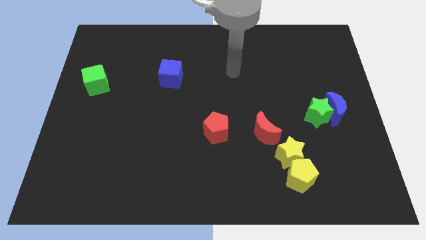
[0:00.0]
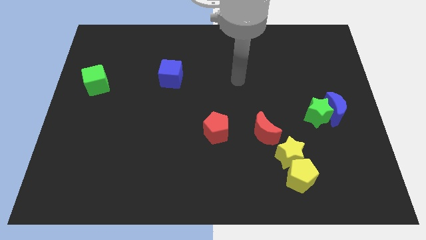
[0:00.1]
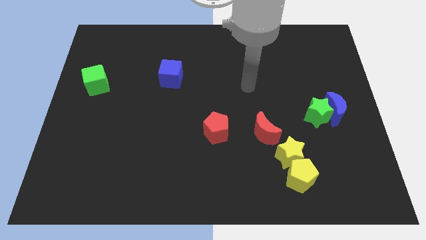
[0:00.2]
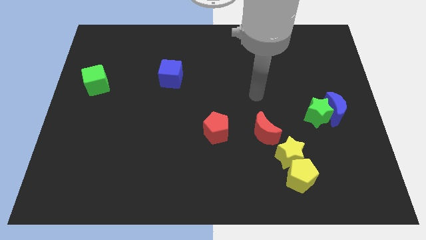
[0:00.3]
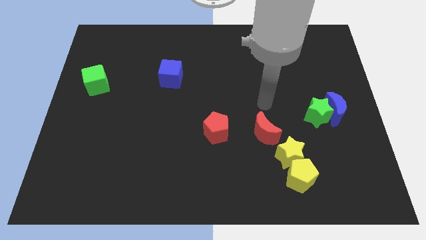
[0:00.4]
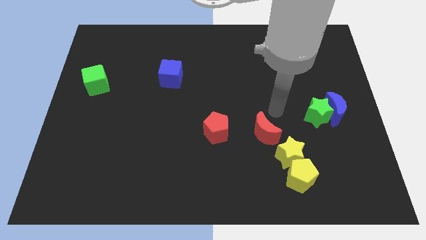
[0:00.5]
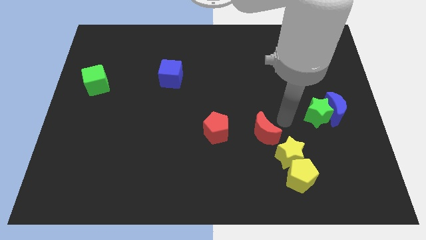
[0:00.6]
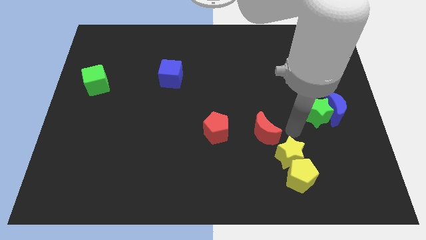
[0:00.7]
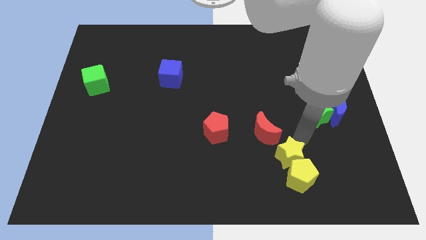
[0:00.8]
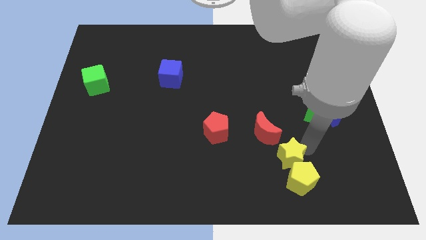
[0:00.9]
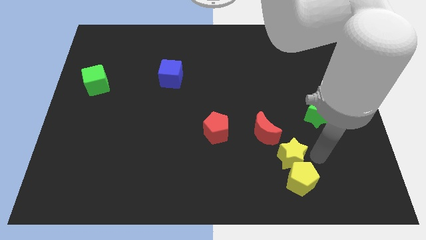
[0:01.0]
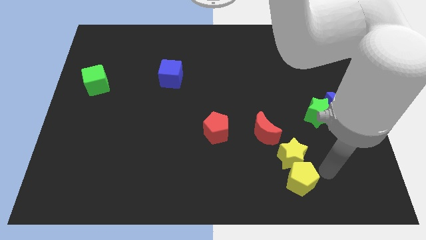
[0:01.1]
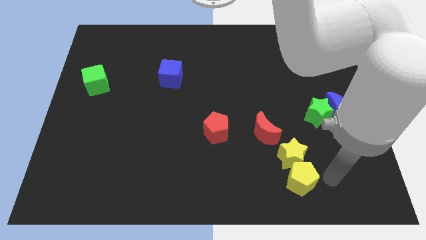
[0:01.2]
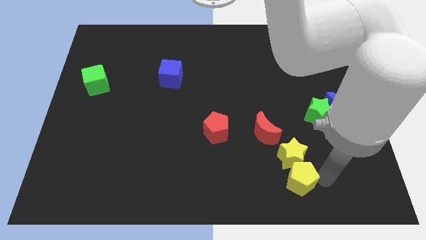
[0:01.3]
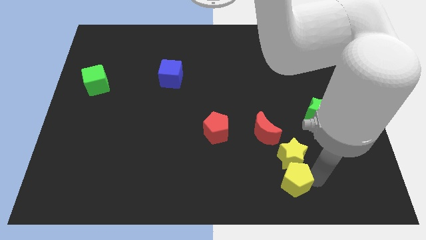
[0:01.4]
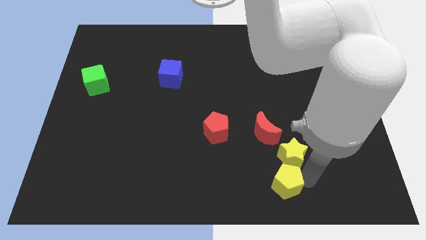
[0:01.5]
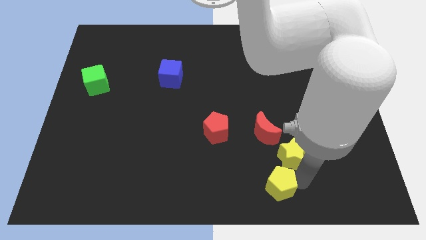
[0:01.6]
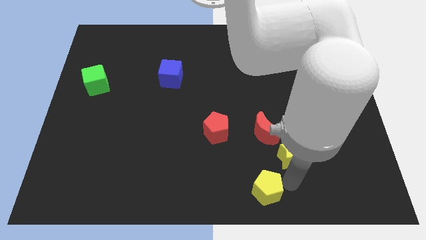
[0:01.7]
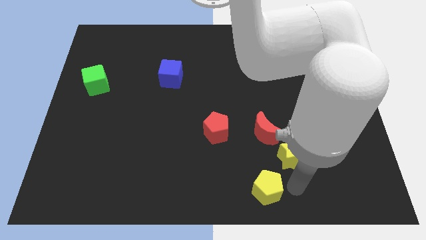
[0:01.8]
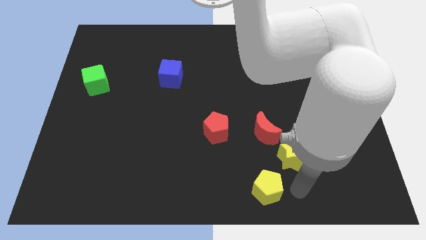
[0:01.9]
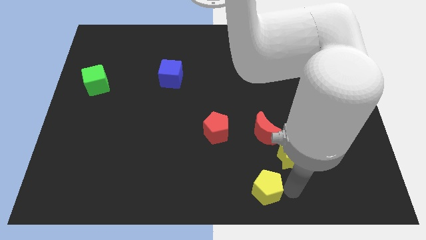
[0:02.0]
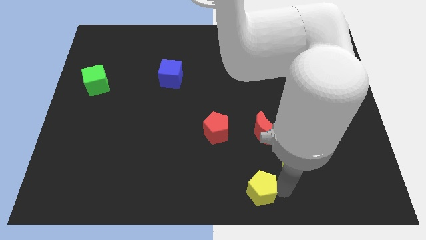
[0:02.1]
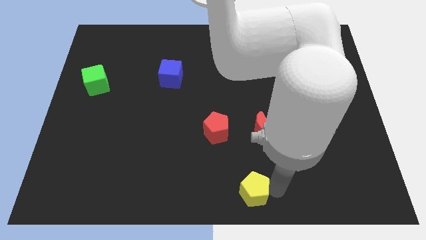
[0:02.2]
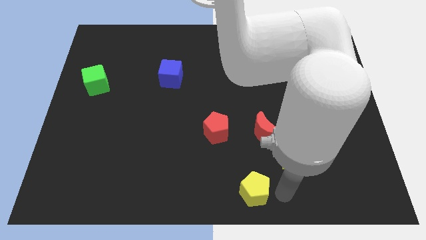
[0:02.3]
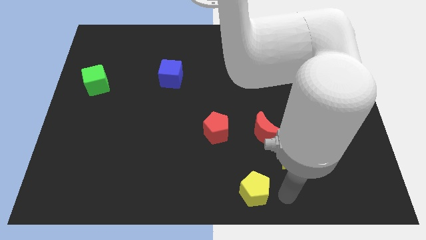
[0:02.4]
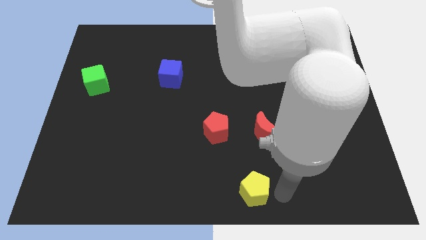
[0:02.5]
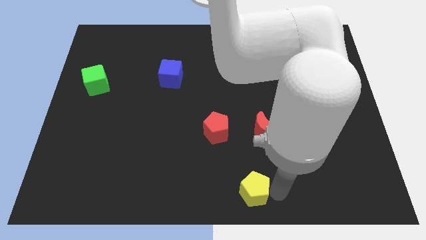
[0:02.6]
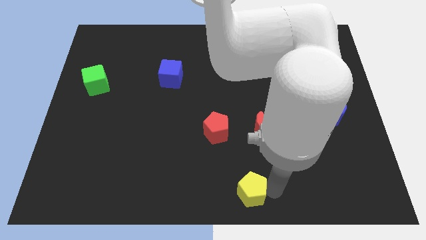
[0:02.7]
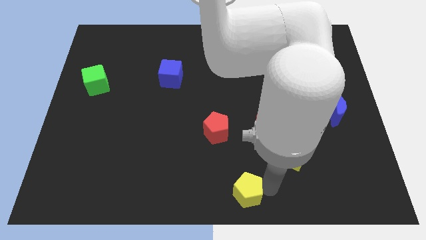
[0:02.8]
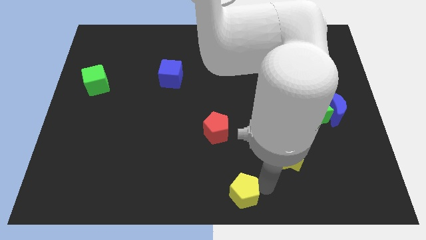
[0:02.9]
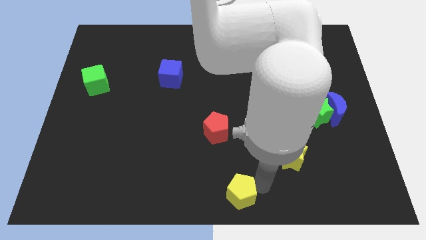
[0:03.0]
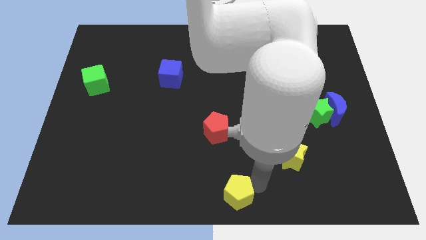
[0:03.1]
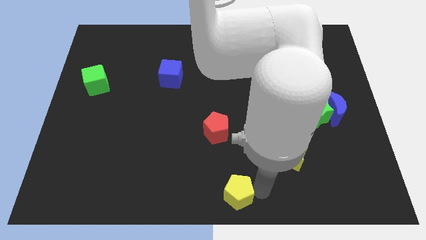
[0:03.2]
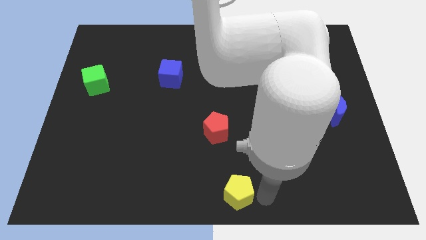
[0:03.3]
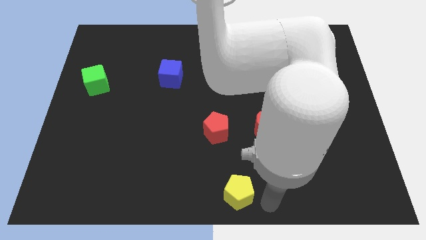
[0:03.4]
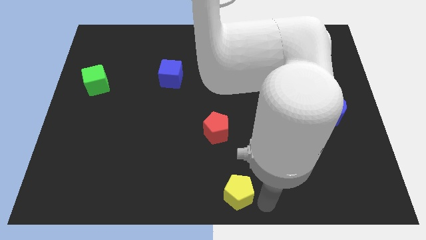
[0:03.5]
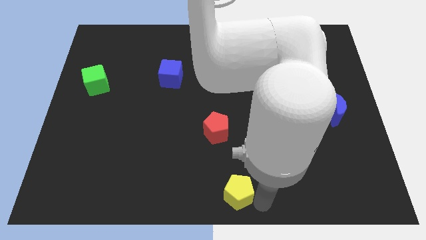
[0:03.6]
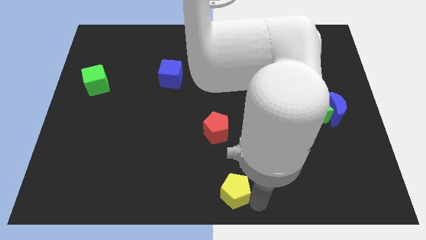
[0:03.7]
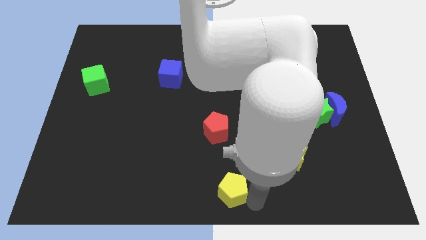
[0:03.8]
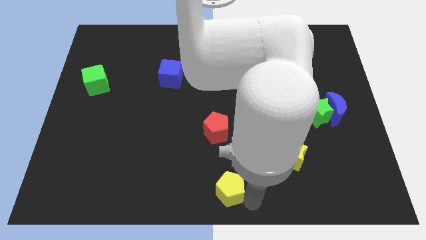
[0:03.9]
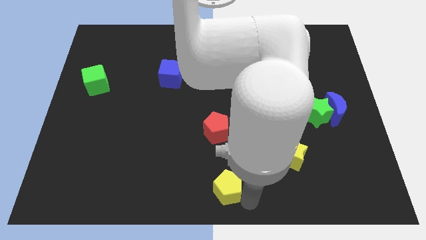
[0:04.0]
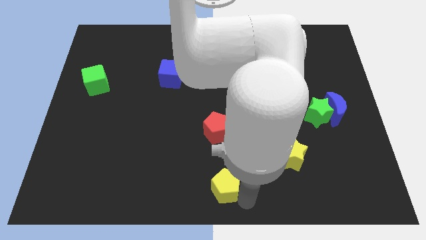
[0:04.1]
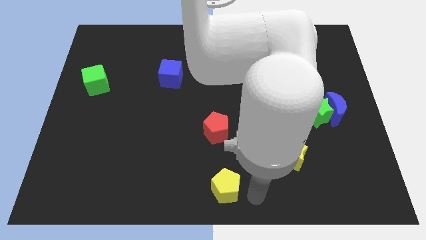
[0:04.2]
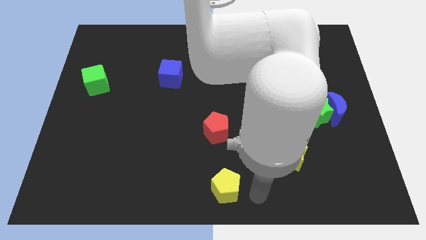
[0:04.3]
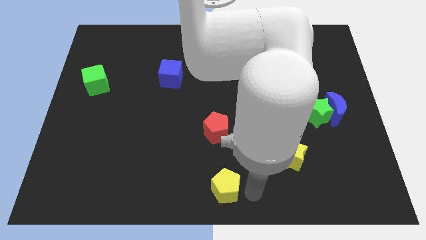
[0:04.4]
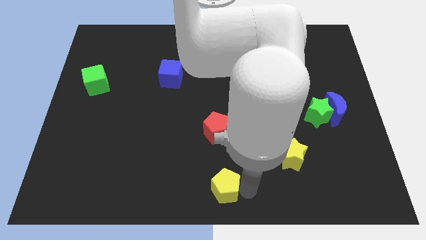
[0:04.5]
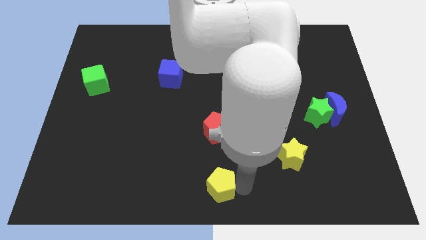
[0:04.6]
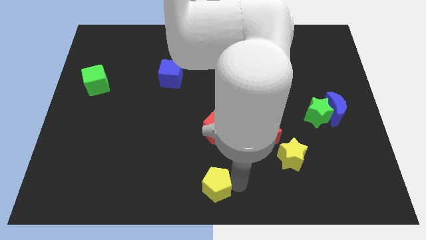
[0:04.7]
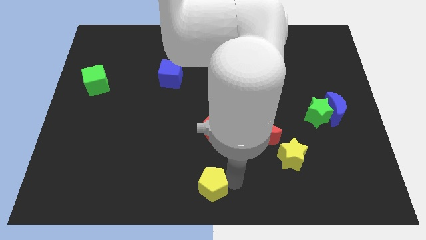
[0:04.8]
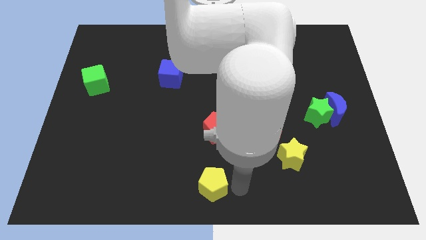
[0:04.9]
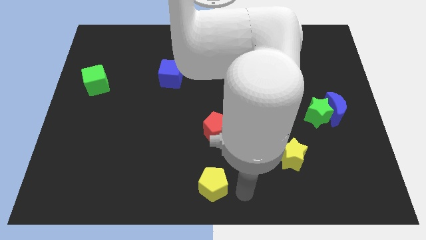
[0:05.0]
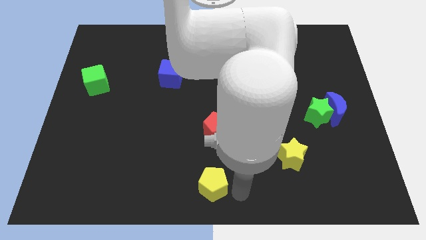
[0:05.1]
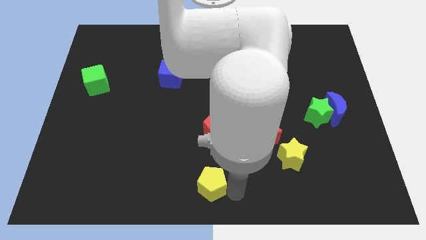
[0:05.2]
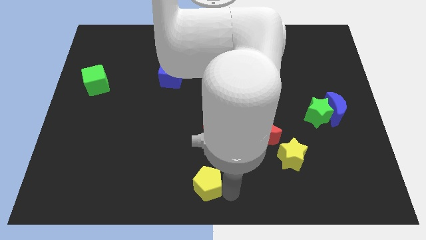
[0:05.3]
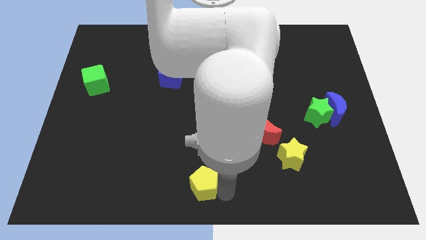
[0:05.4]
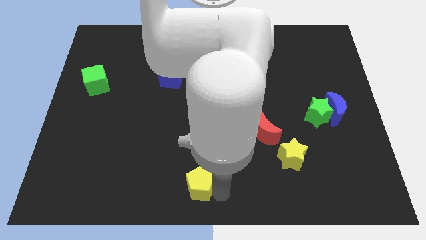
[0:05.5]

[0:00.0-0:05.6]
push the yellow pentagon to the left

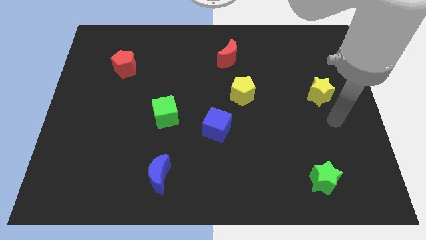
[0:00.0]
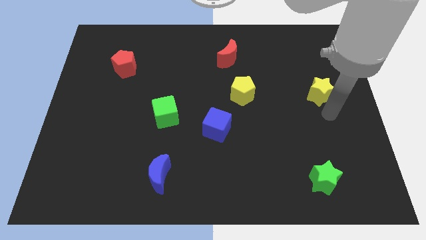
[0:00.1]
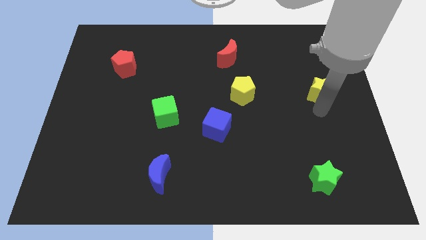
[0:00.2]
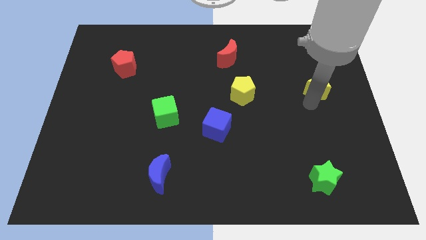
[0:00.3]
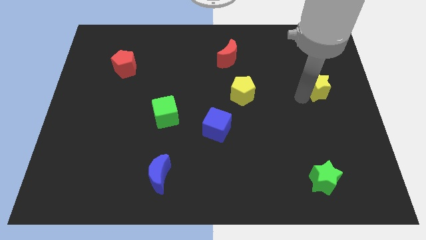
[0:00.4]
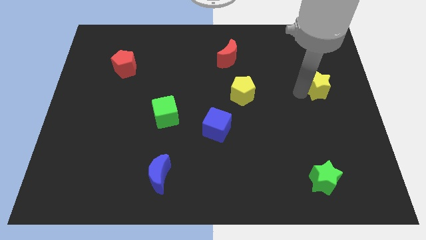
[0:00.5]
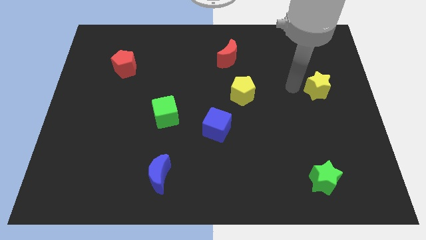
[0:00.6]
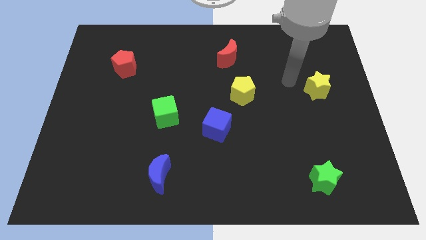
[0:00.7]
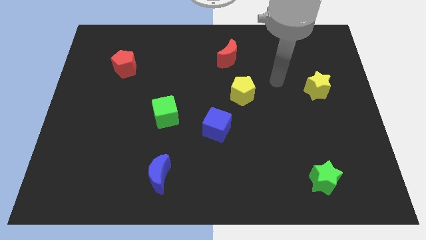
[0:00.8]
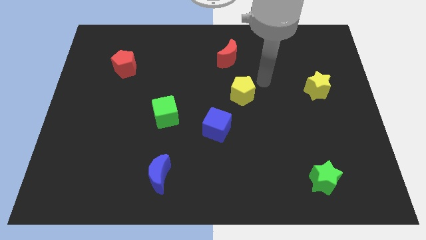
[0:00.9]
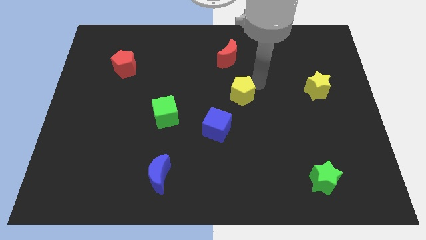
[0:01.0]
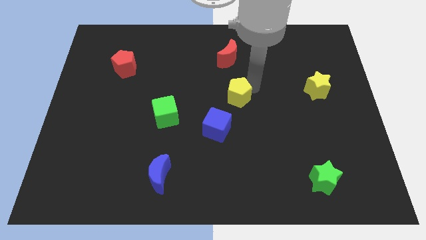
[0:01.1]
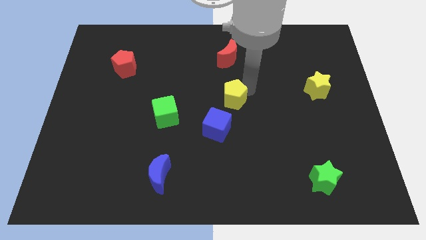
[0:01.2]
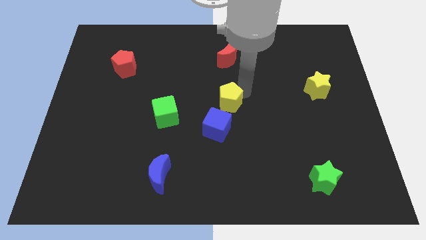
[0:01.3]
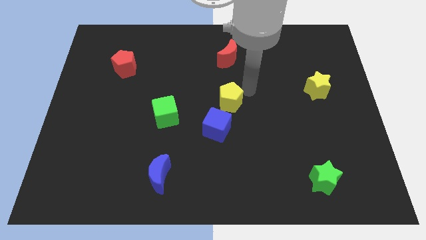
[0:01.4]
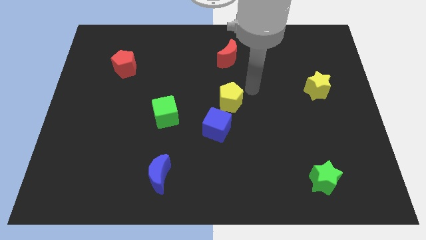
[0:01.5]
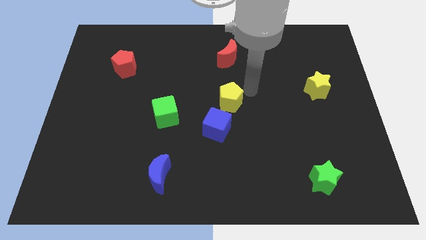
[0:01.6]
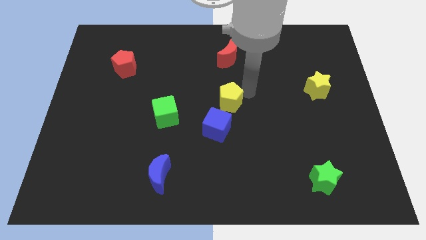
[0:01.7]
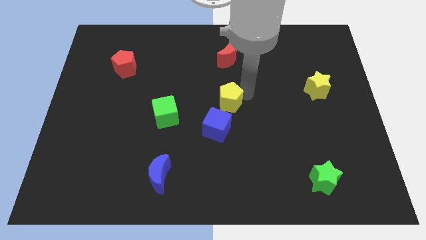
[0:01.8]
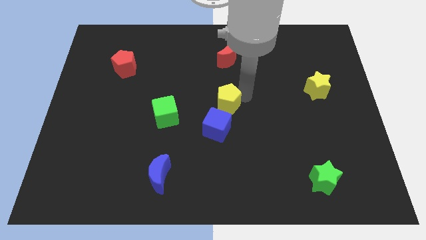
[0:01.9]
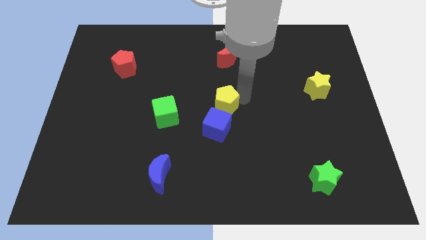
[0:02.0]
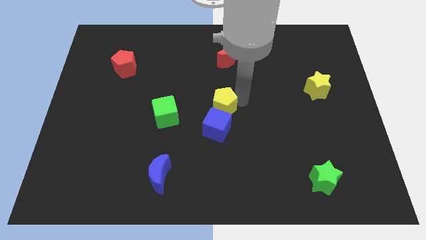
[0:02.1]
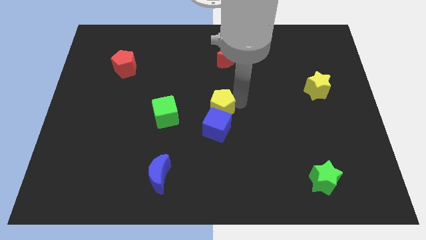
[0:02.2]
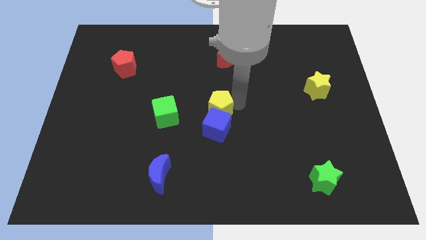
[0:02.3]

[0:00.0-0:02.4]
slightly move the yellow pentagon downwards and to the left diagonally
